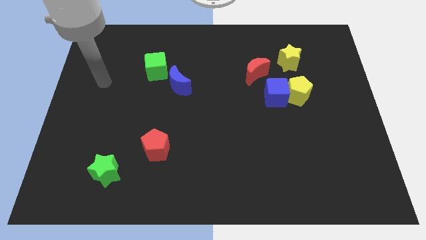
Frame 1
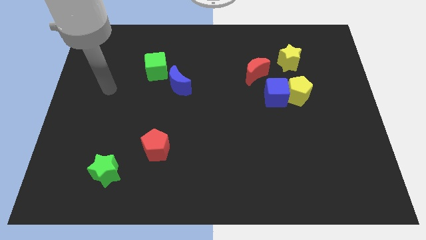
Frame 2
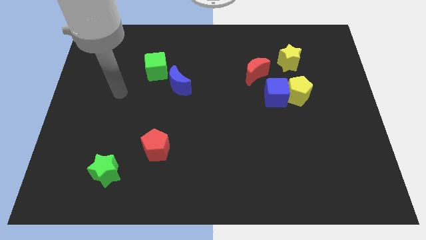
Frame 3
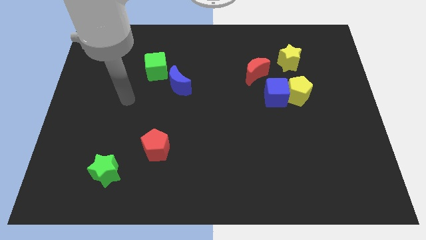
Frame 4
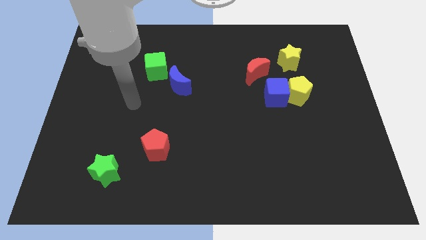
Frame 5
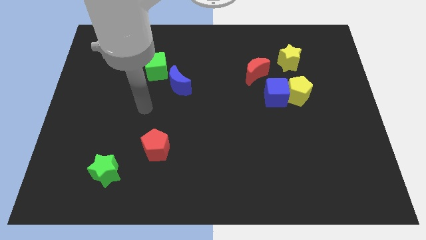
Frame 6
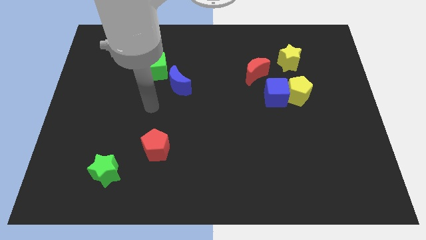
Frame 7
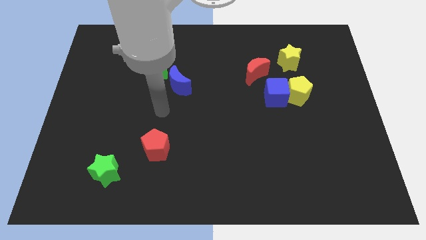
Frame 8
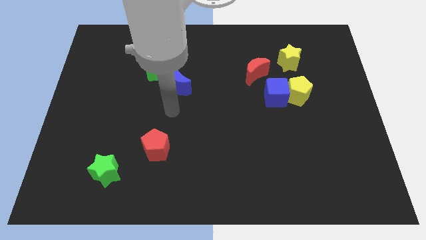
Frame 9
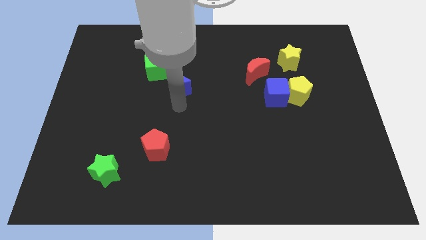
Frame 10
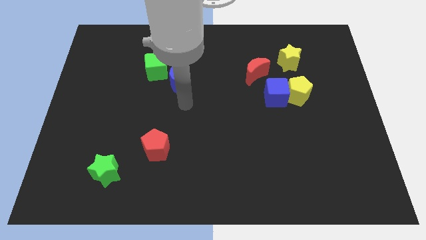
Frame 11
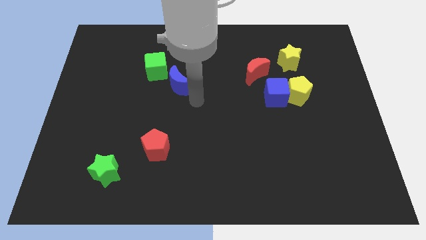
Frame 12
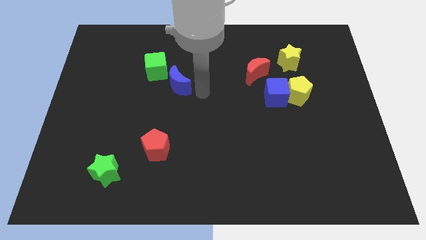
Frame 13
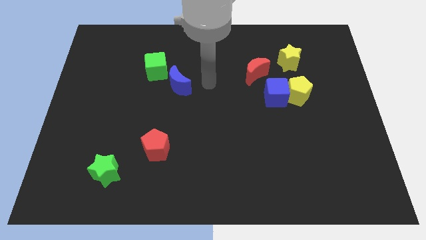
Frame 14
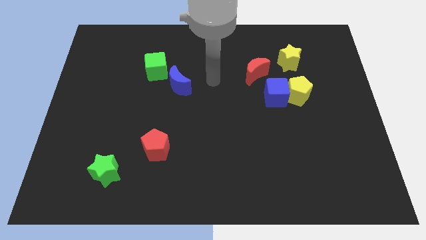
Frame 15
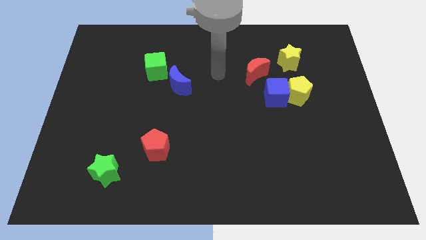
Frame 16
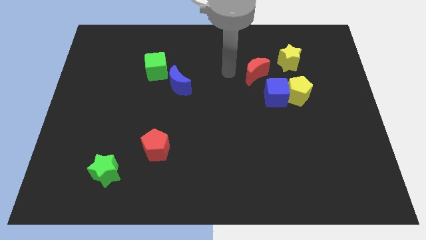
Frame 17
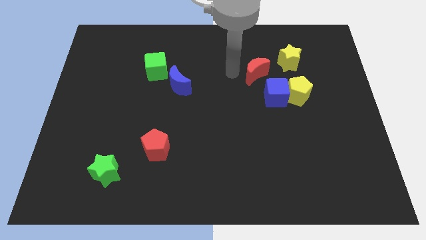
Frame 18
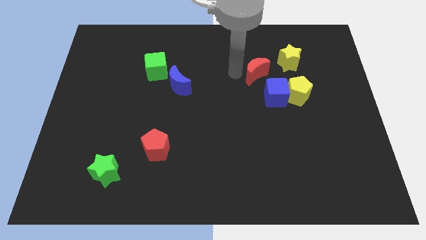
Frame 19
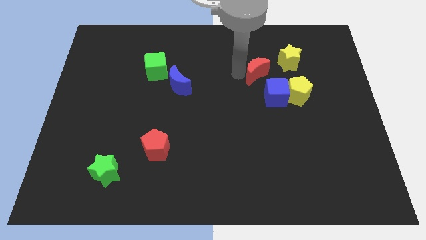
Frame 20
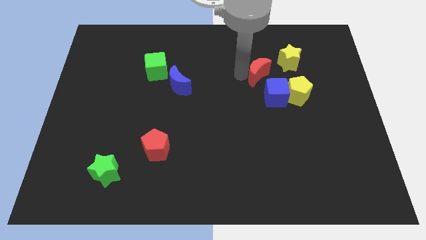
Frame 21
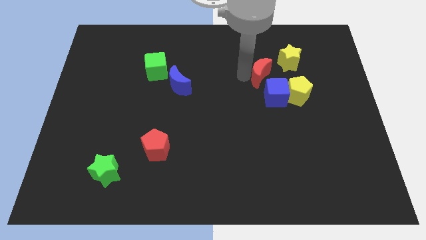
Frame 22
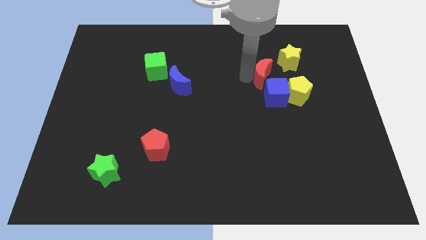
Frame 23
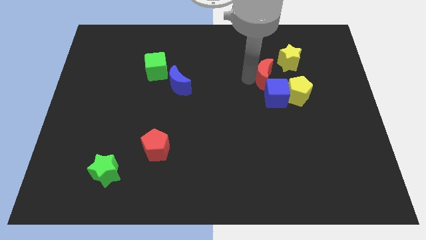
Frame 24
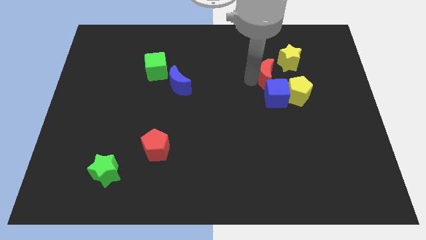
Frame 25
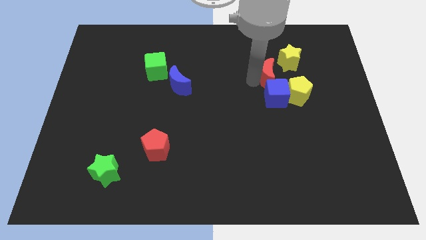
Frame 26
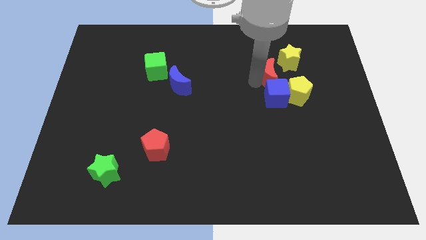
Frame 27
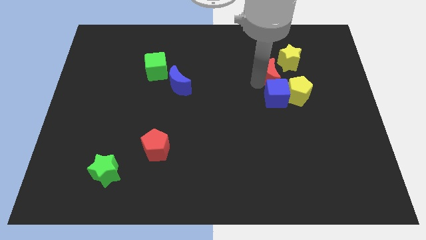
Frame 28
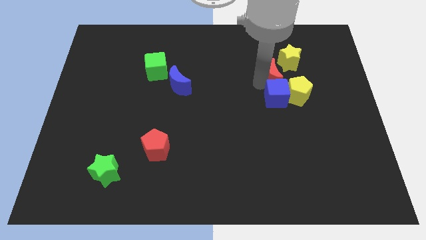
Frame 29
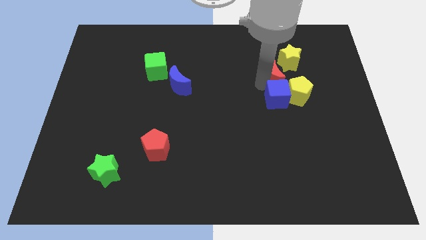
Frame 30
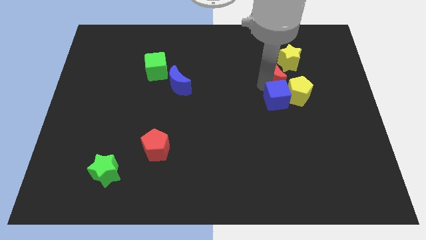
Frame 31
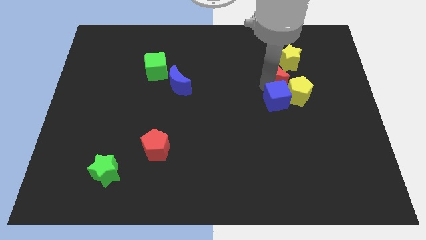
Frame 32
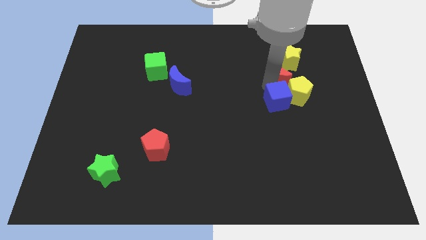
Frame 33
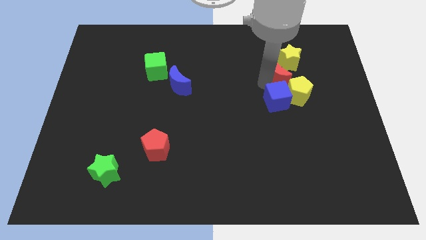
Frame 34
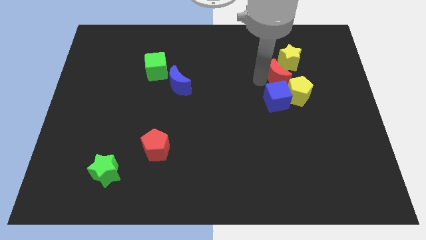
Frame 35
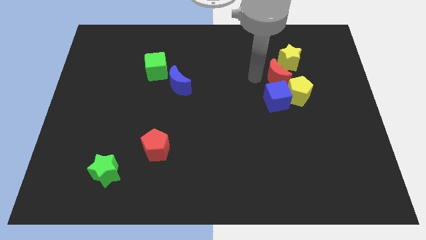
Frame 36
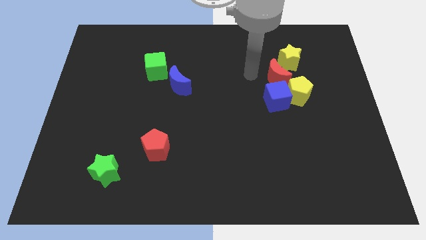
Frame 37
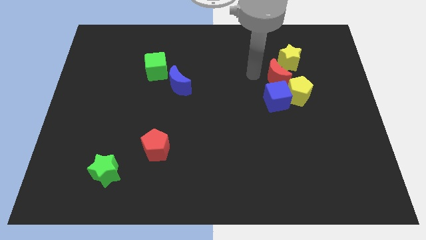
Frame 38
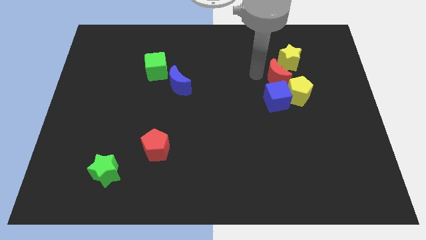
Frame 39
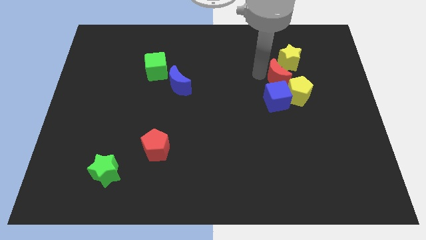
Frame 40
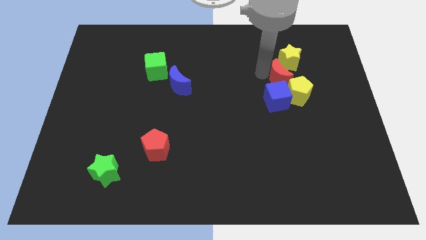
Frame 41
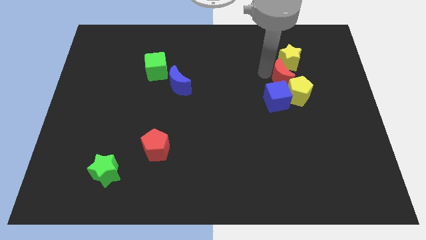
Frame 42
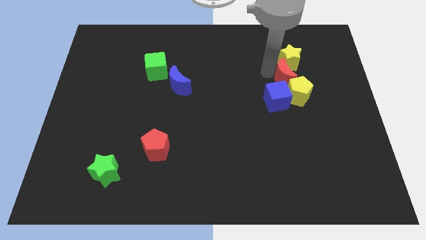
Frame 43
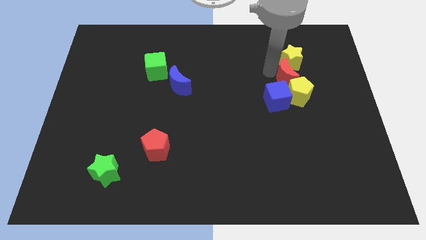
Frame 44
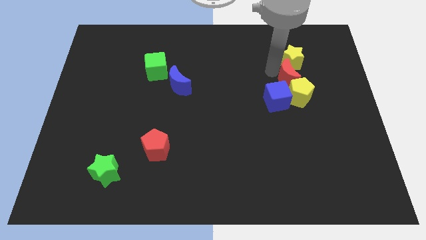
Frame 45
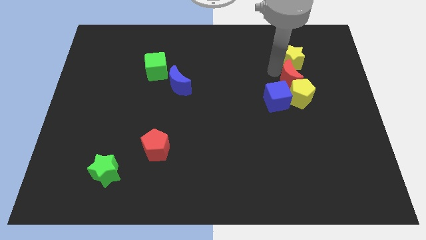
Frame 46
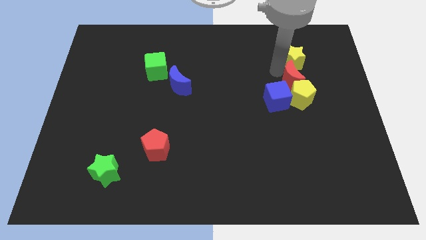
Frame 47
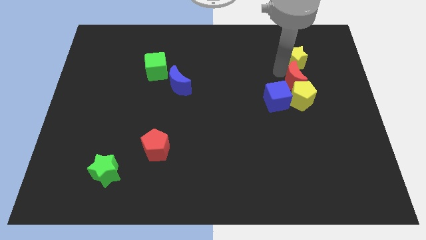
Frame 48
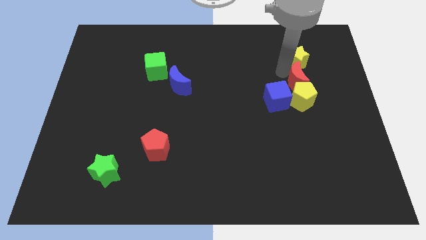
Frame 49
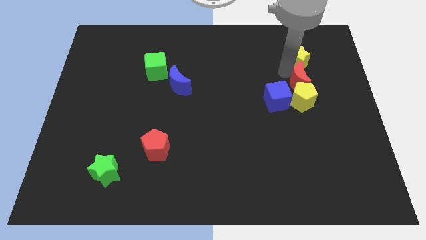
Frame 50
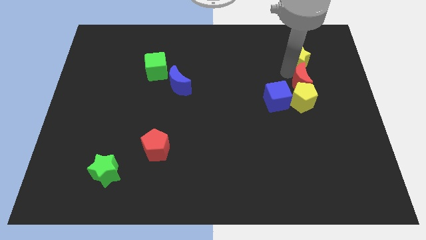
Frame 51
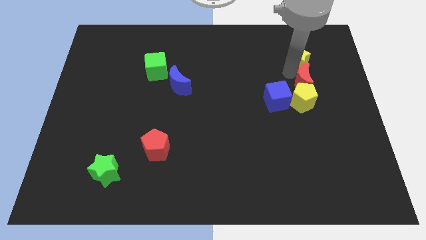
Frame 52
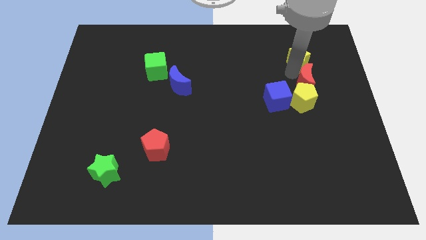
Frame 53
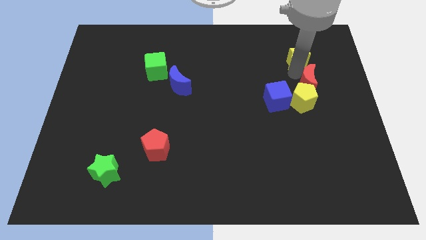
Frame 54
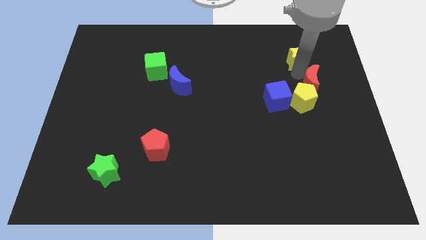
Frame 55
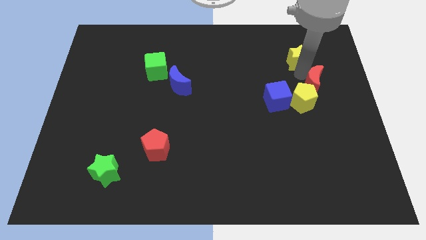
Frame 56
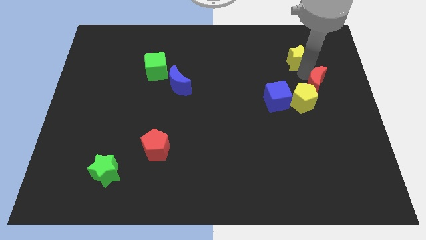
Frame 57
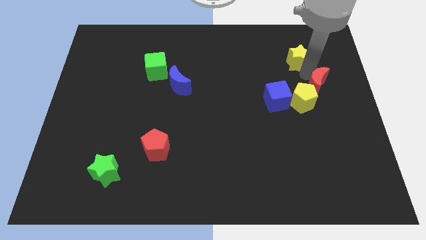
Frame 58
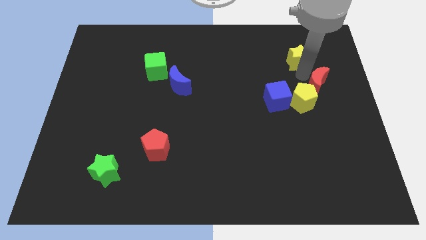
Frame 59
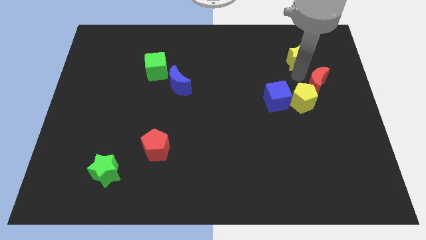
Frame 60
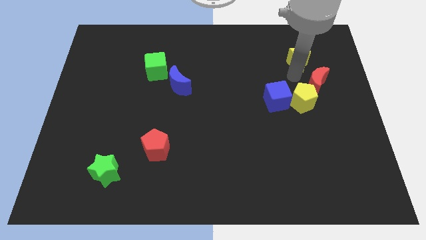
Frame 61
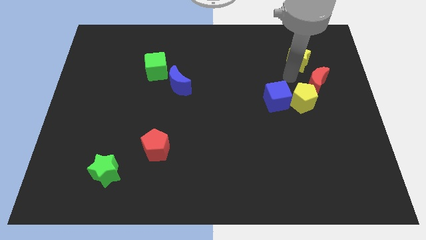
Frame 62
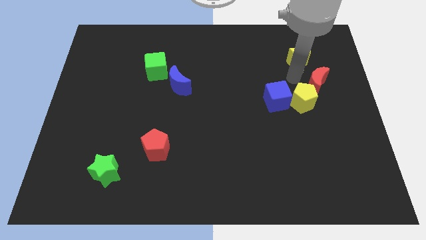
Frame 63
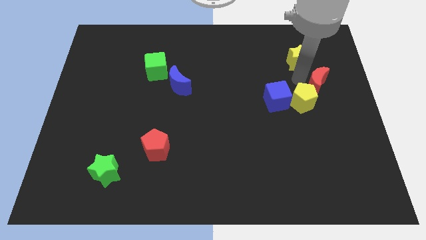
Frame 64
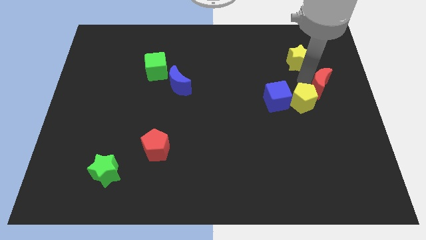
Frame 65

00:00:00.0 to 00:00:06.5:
put the red moon to the right side of the board
